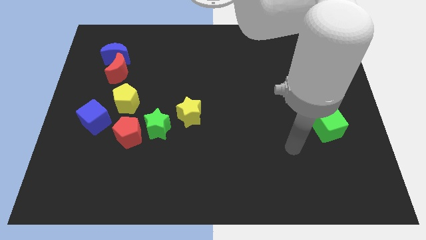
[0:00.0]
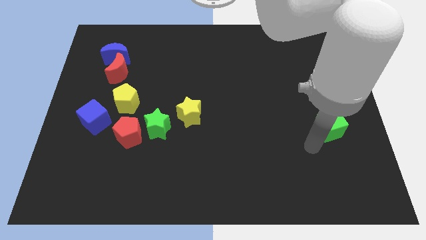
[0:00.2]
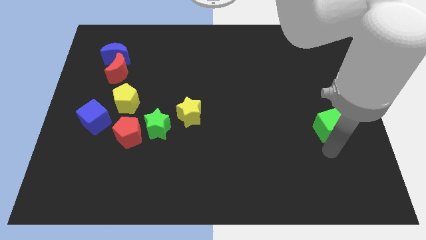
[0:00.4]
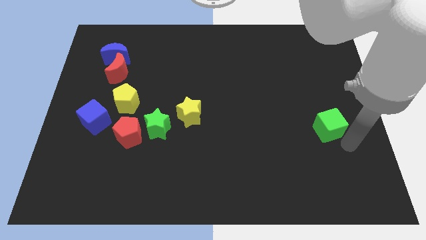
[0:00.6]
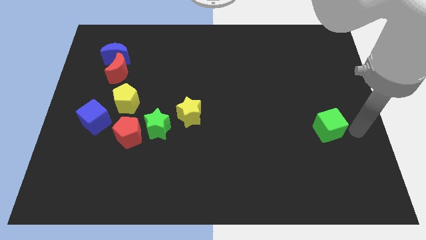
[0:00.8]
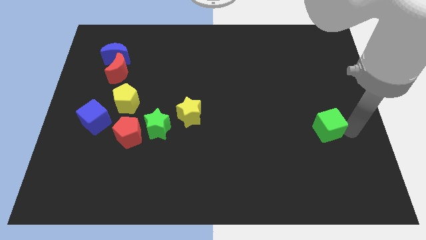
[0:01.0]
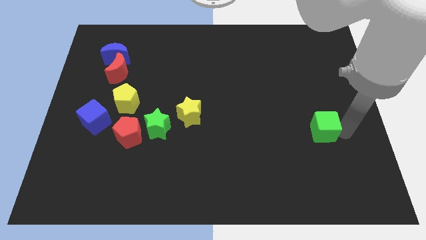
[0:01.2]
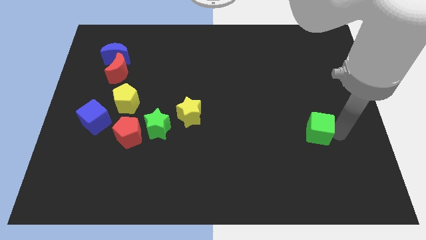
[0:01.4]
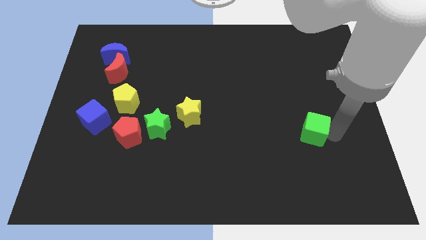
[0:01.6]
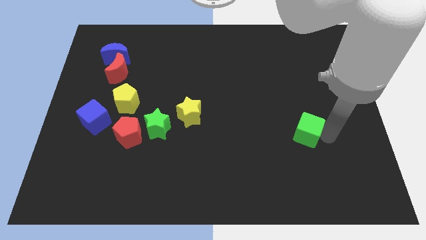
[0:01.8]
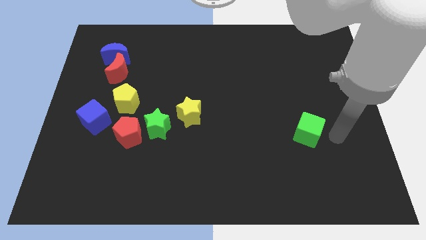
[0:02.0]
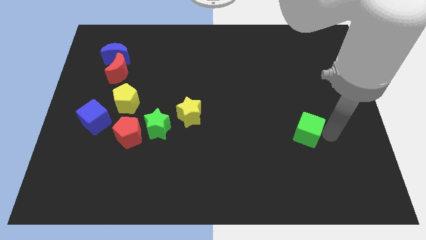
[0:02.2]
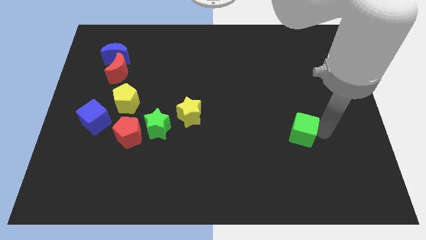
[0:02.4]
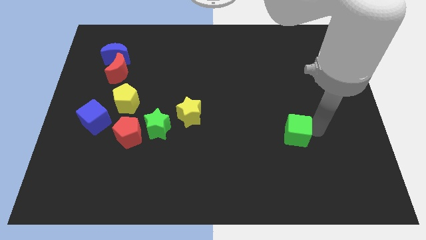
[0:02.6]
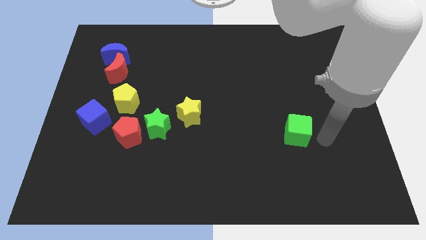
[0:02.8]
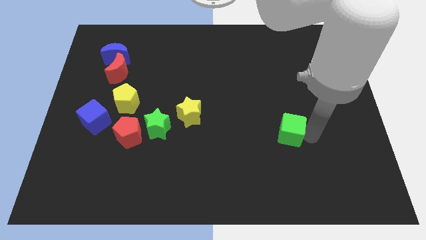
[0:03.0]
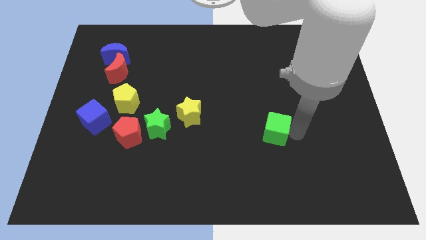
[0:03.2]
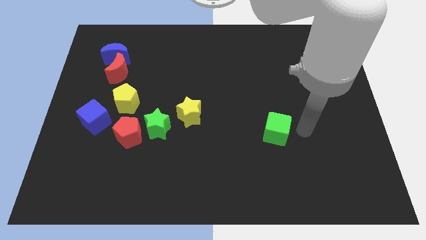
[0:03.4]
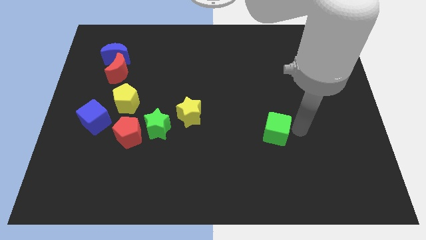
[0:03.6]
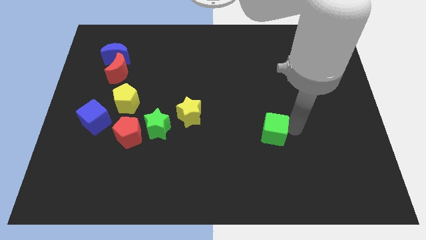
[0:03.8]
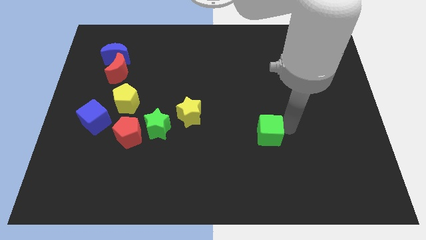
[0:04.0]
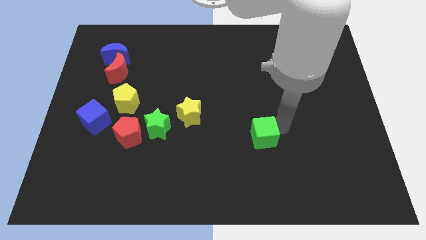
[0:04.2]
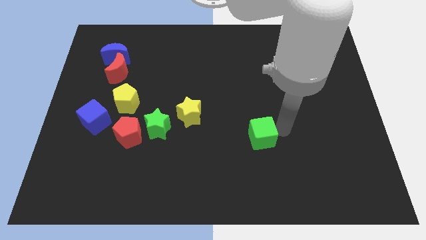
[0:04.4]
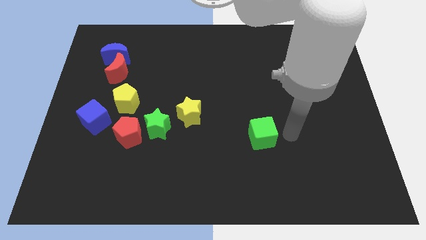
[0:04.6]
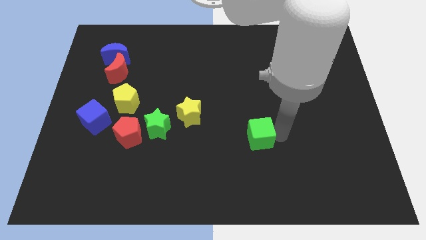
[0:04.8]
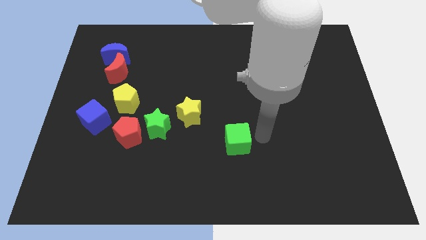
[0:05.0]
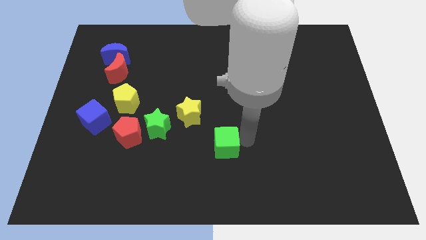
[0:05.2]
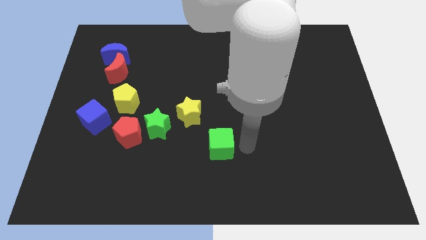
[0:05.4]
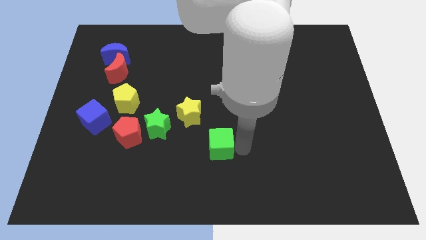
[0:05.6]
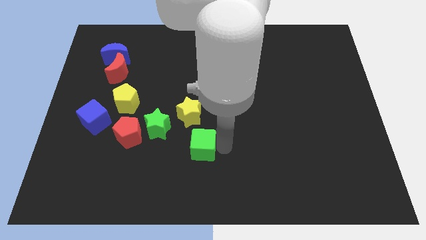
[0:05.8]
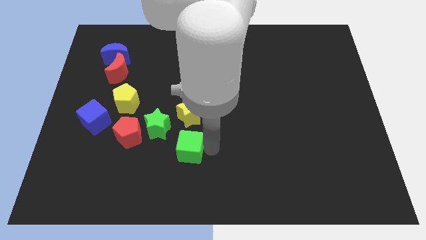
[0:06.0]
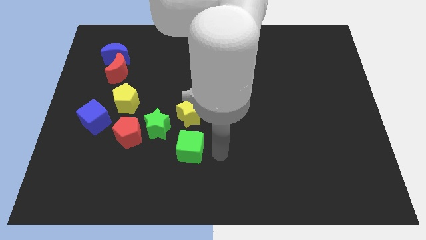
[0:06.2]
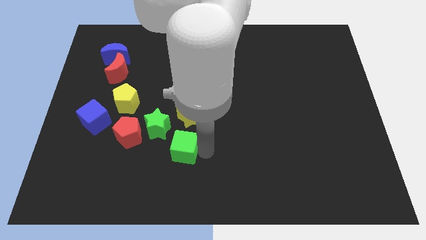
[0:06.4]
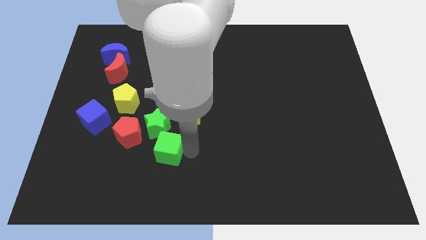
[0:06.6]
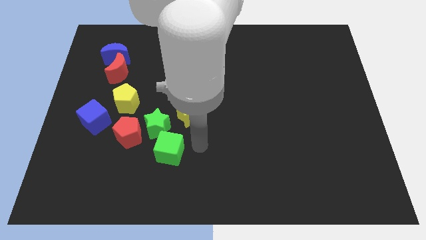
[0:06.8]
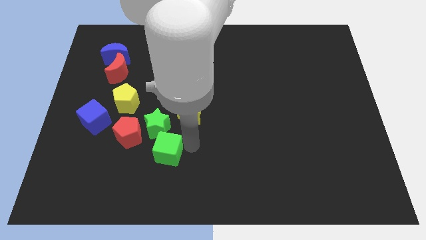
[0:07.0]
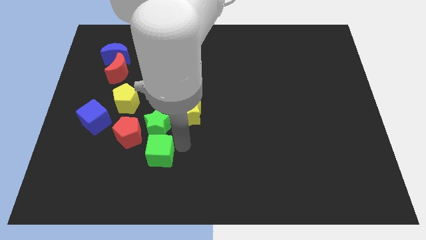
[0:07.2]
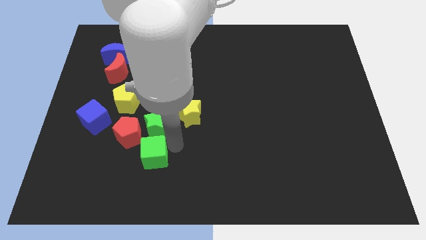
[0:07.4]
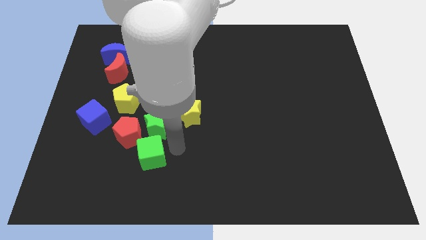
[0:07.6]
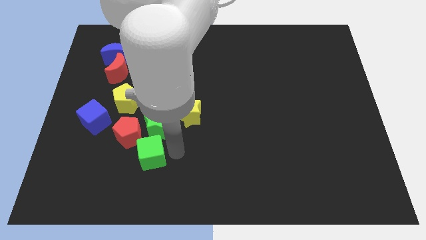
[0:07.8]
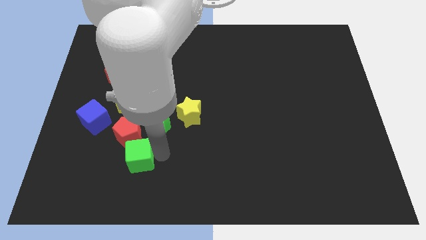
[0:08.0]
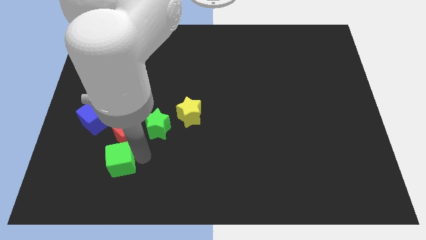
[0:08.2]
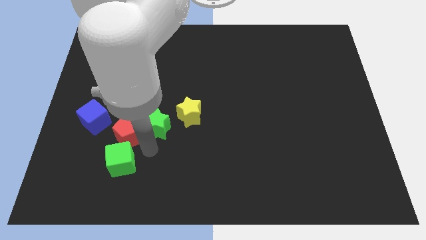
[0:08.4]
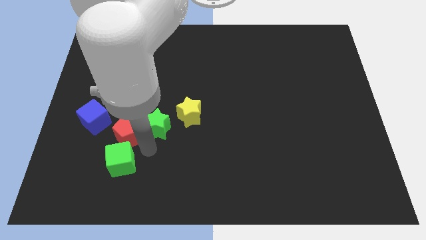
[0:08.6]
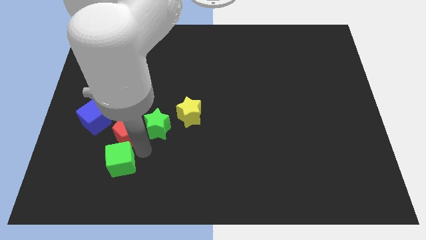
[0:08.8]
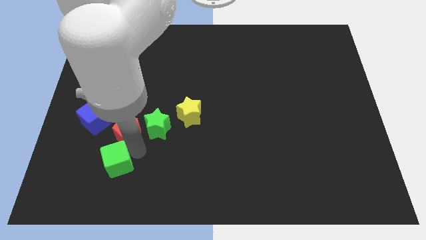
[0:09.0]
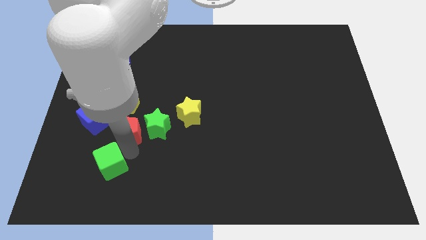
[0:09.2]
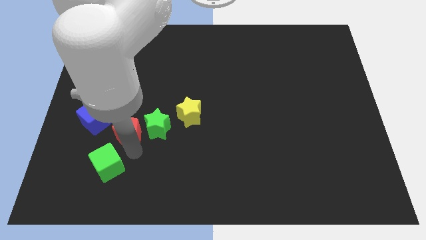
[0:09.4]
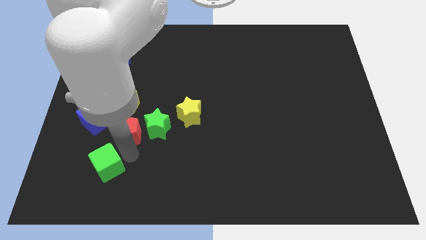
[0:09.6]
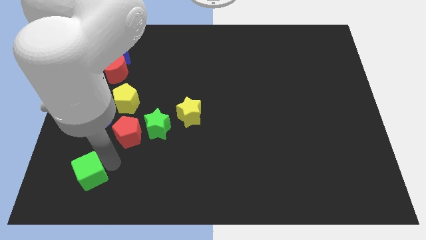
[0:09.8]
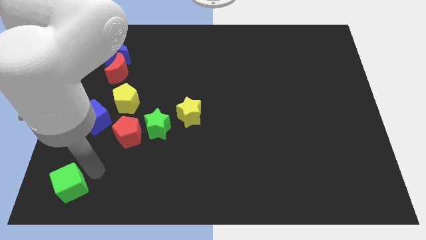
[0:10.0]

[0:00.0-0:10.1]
slide the green cube to the lower left corner

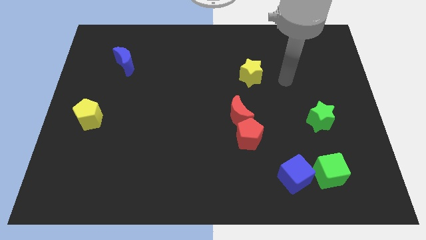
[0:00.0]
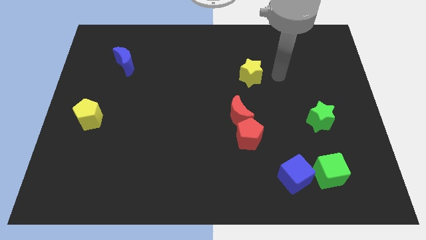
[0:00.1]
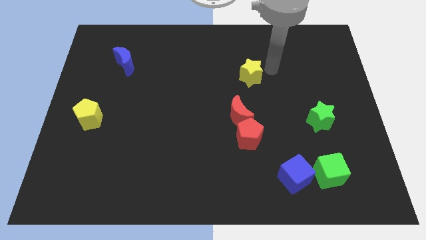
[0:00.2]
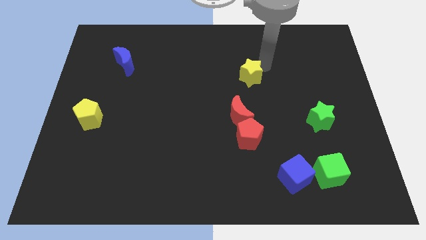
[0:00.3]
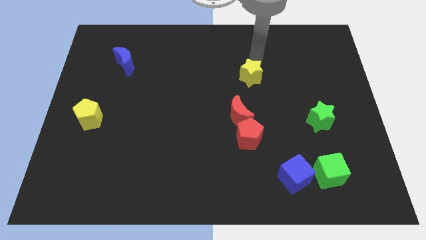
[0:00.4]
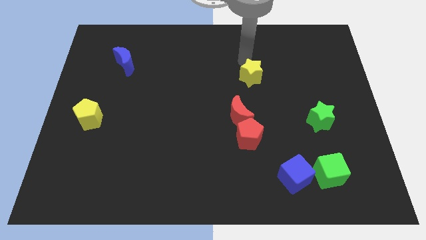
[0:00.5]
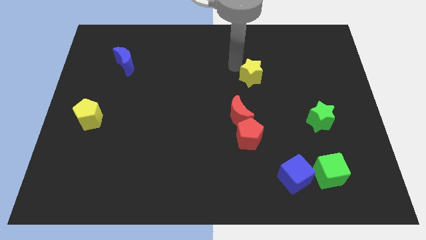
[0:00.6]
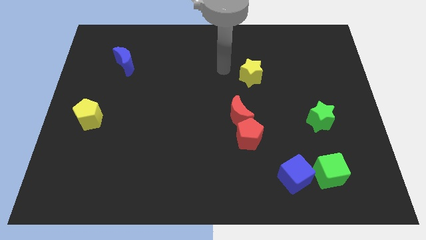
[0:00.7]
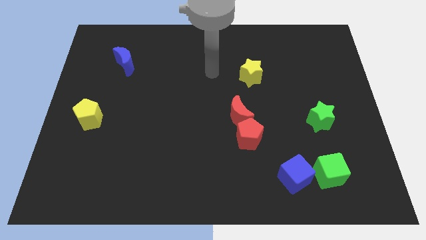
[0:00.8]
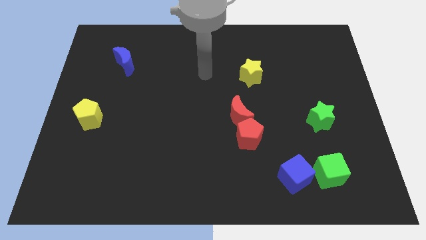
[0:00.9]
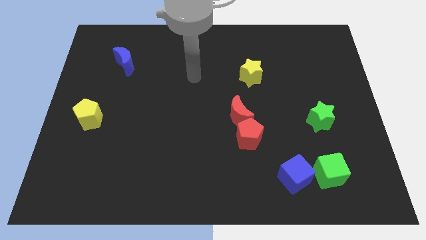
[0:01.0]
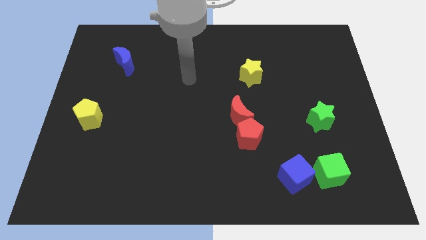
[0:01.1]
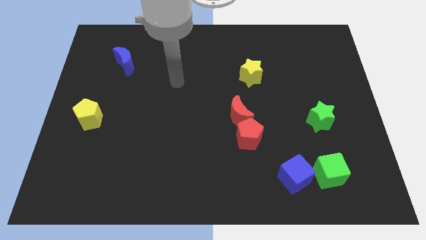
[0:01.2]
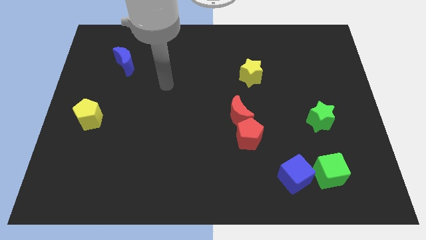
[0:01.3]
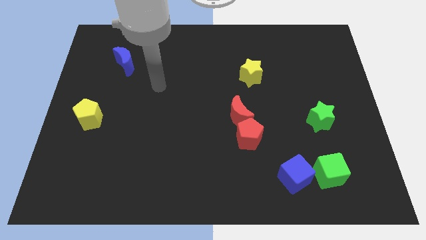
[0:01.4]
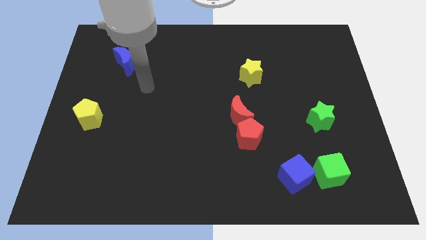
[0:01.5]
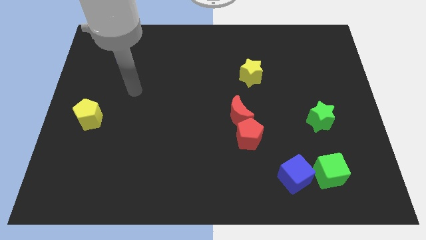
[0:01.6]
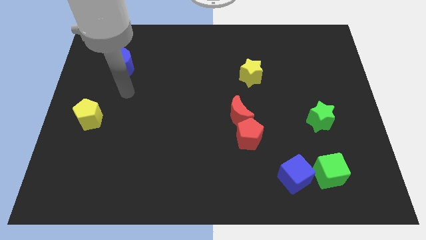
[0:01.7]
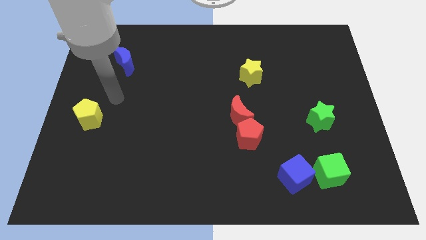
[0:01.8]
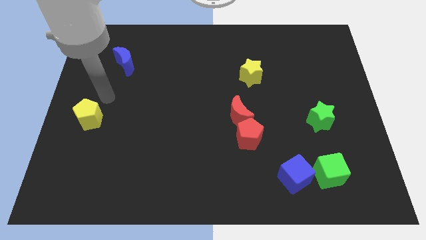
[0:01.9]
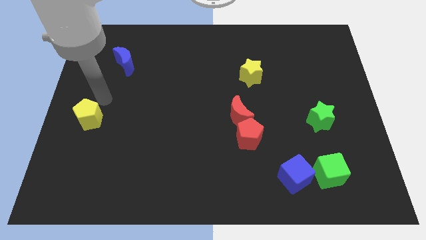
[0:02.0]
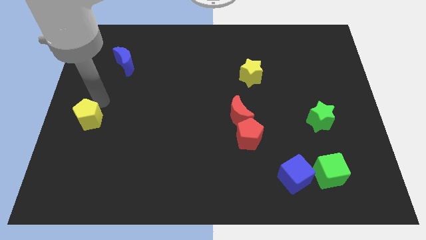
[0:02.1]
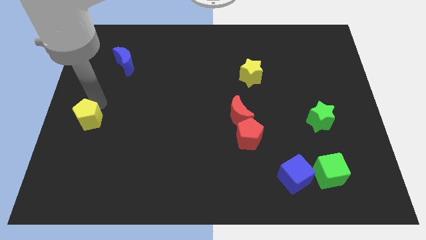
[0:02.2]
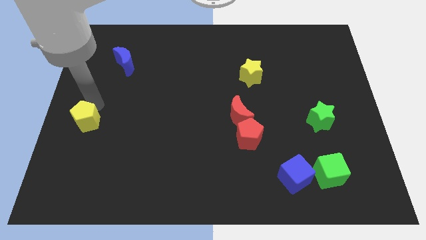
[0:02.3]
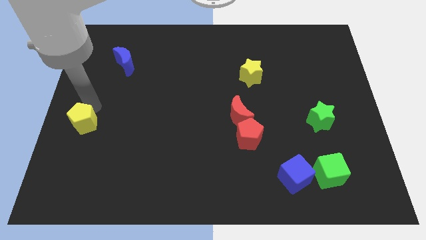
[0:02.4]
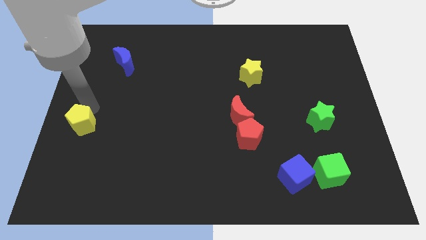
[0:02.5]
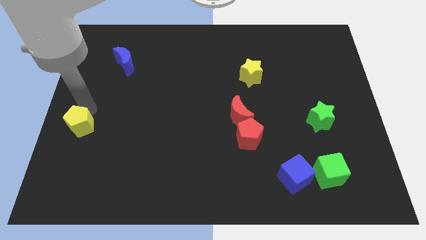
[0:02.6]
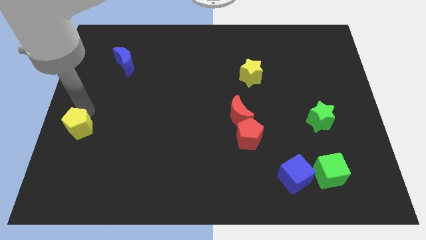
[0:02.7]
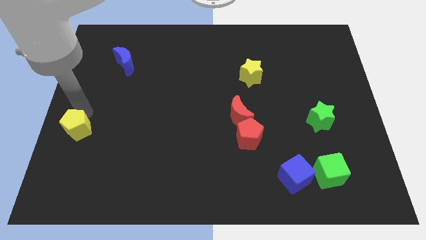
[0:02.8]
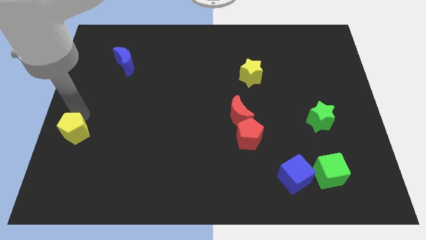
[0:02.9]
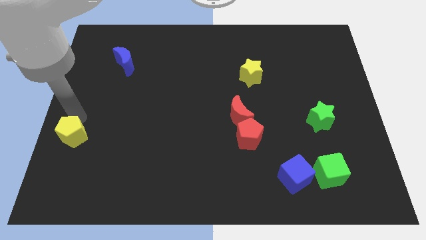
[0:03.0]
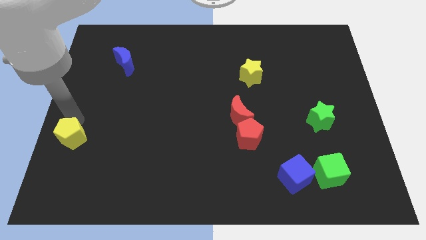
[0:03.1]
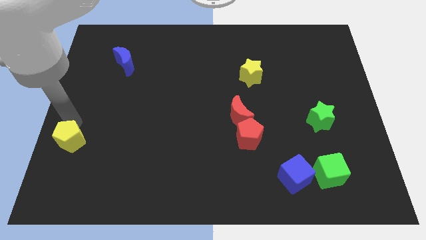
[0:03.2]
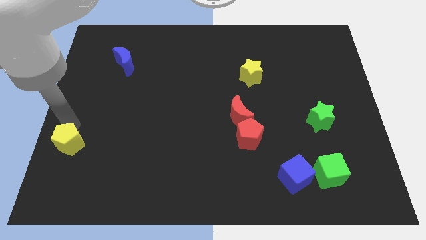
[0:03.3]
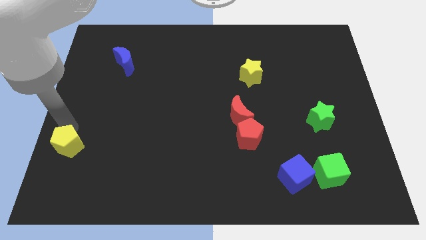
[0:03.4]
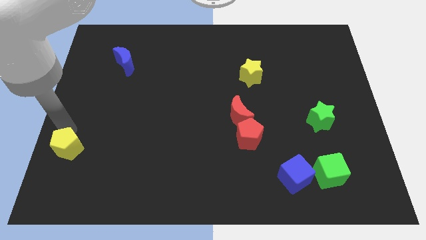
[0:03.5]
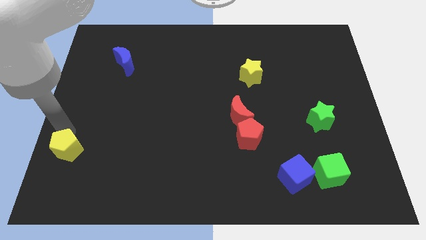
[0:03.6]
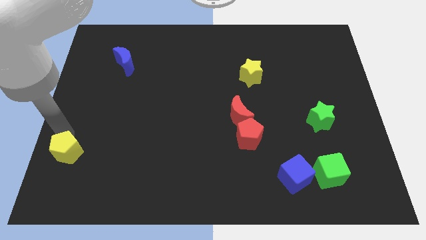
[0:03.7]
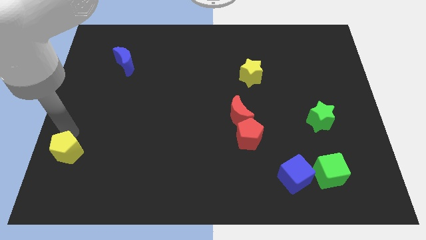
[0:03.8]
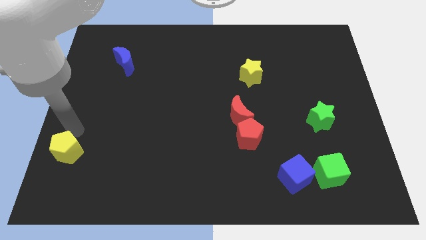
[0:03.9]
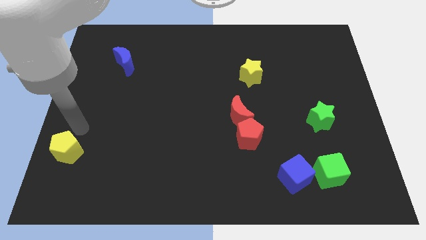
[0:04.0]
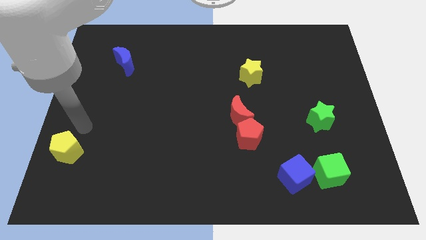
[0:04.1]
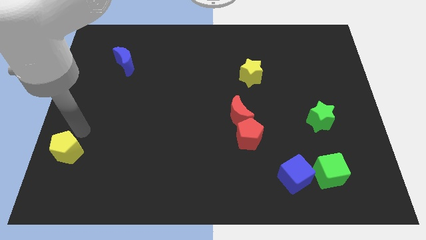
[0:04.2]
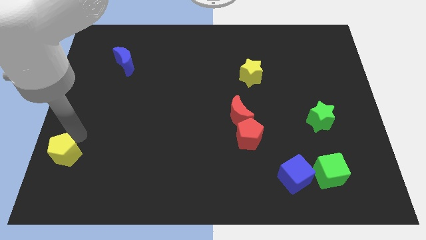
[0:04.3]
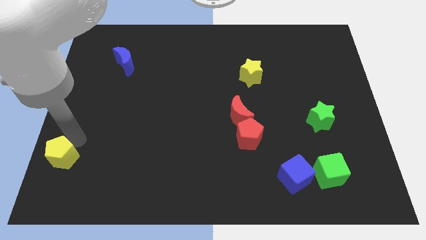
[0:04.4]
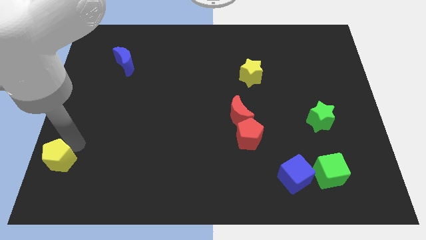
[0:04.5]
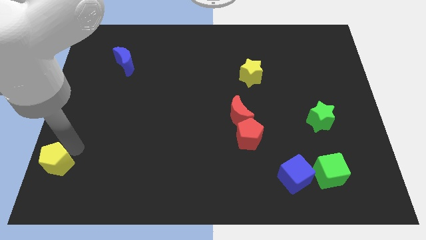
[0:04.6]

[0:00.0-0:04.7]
put the yellow pentagon to the bottom left of the board
